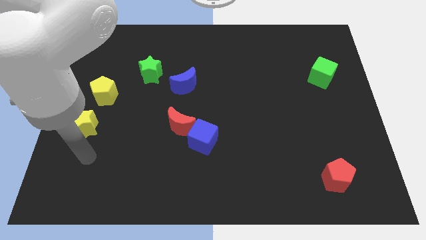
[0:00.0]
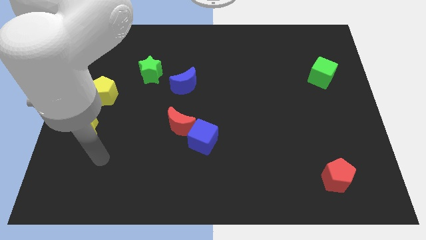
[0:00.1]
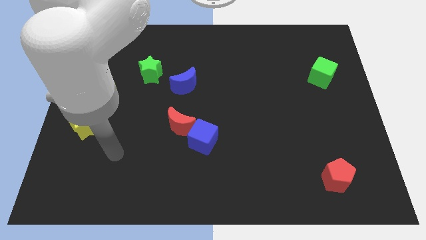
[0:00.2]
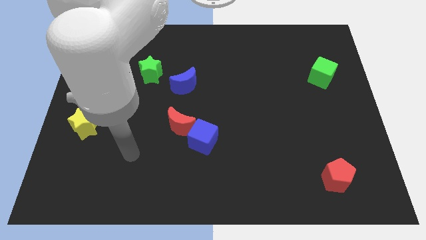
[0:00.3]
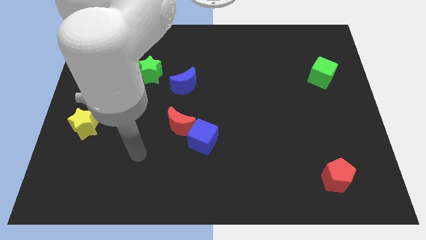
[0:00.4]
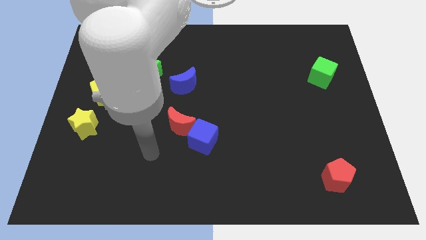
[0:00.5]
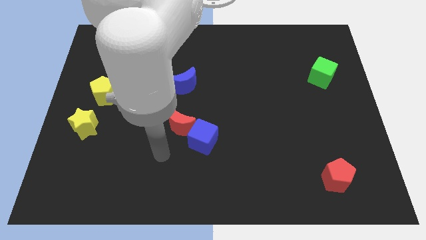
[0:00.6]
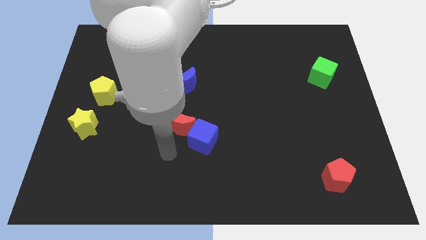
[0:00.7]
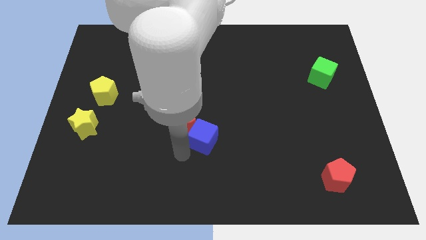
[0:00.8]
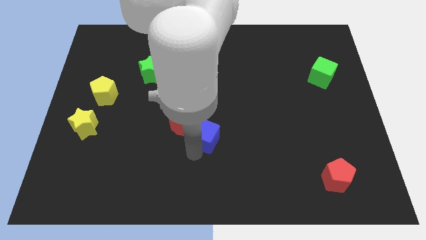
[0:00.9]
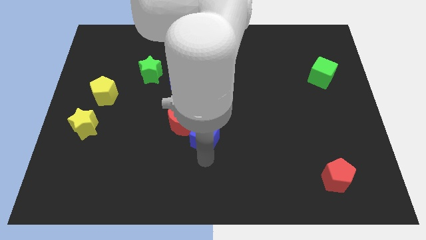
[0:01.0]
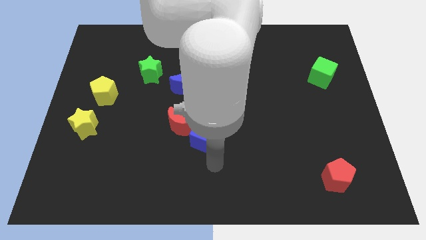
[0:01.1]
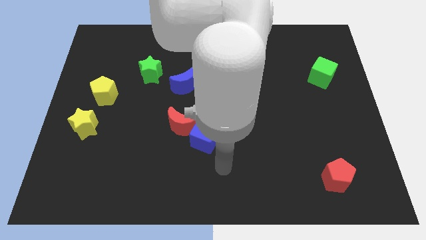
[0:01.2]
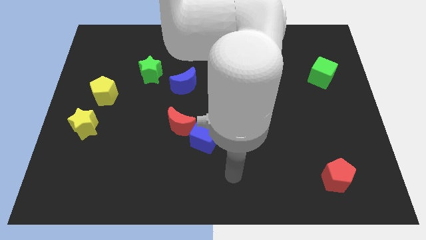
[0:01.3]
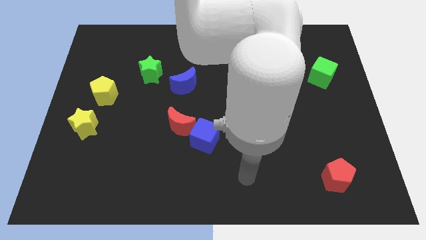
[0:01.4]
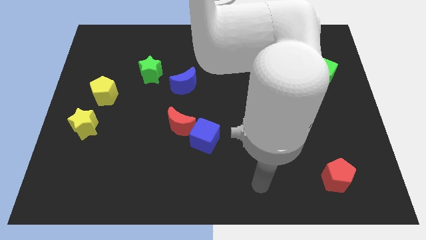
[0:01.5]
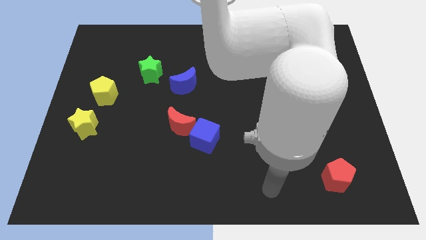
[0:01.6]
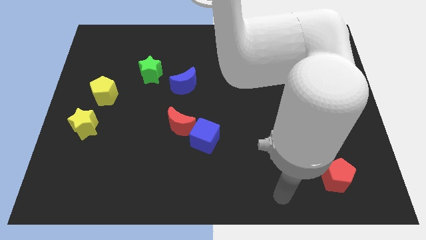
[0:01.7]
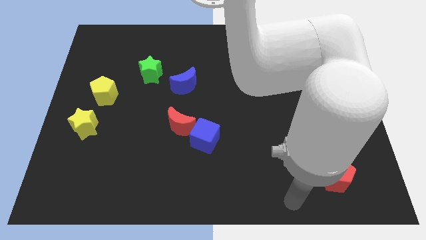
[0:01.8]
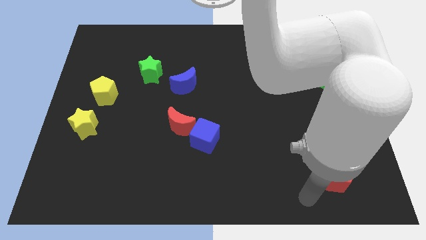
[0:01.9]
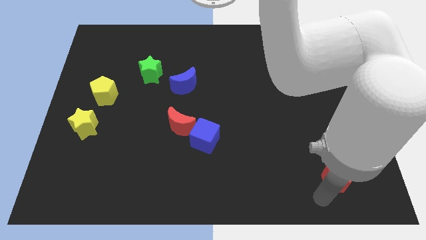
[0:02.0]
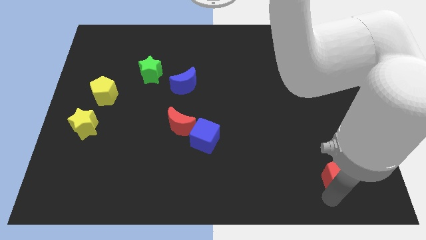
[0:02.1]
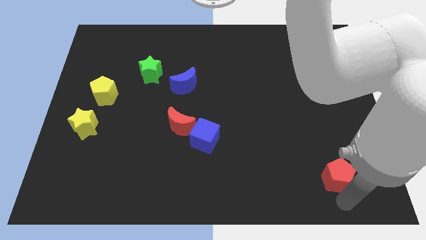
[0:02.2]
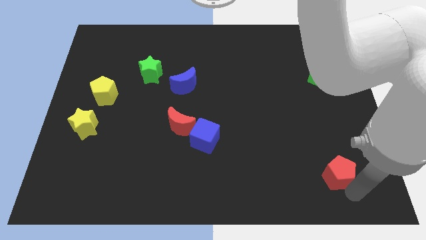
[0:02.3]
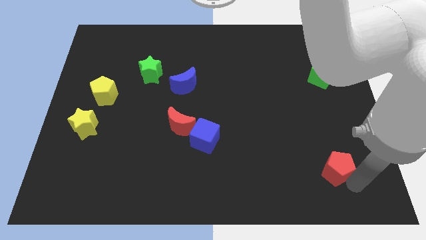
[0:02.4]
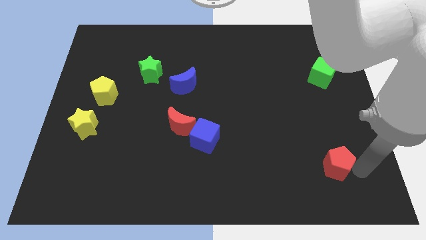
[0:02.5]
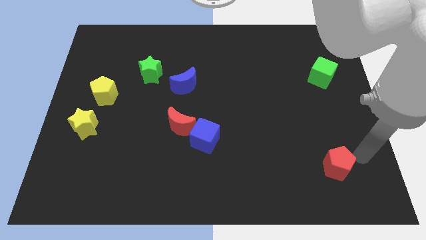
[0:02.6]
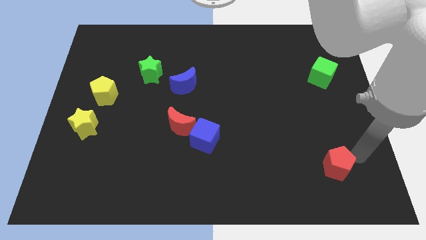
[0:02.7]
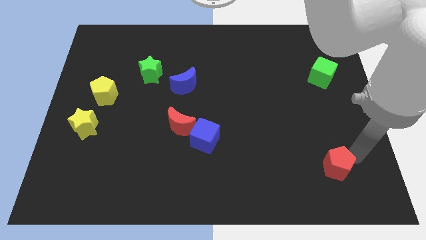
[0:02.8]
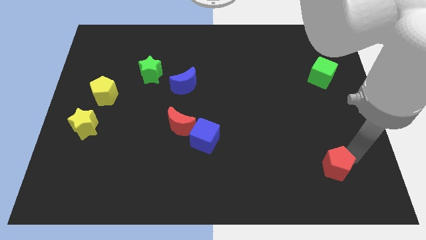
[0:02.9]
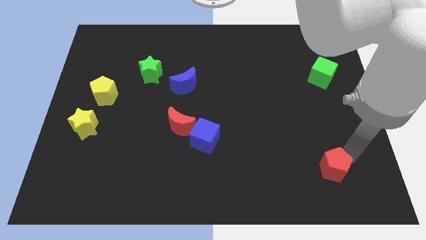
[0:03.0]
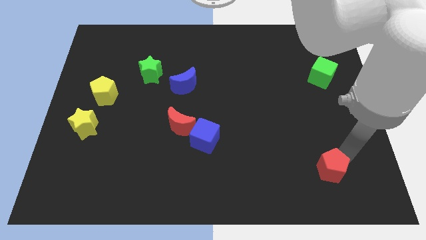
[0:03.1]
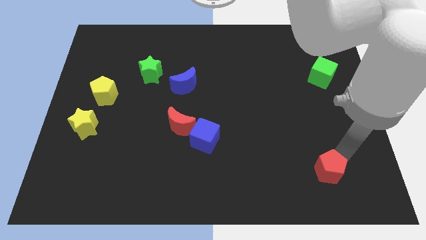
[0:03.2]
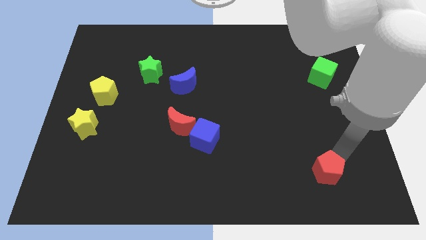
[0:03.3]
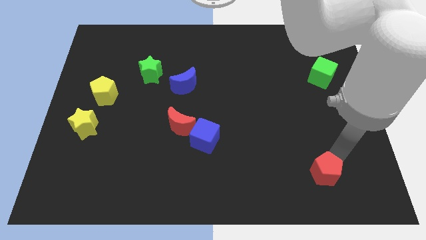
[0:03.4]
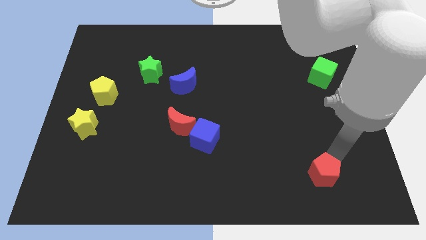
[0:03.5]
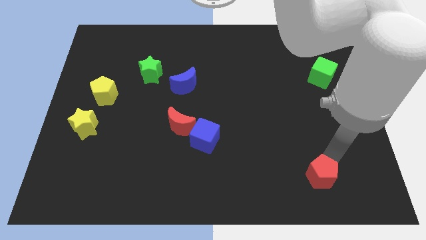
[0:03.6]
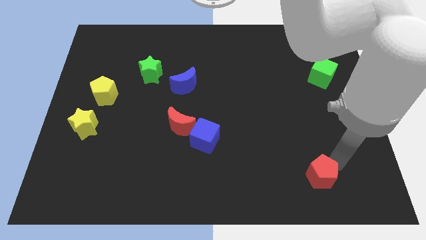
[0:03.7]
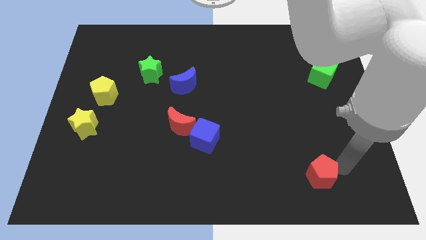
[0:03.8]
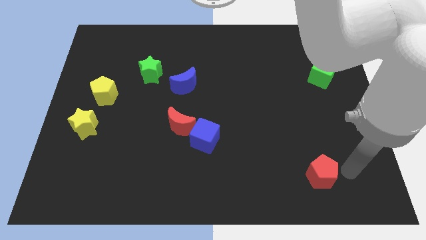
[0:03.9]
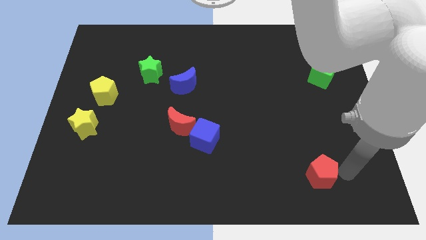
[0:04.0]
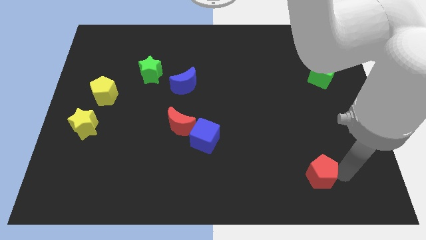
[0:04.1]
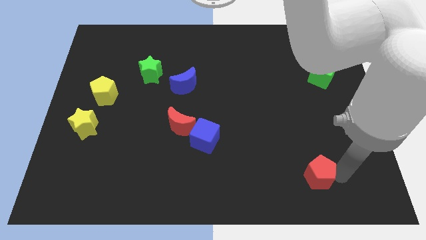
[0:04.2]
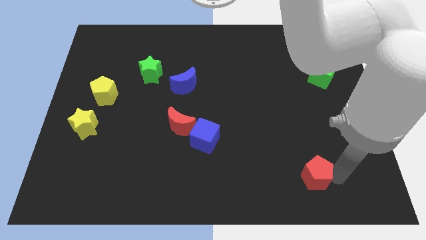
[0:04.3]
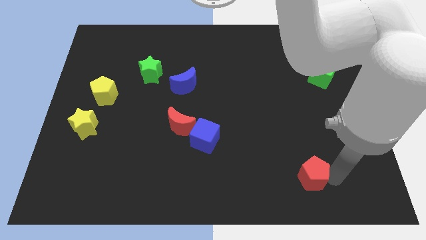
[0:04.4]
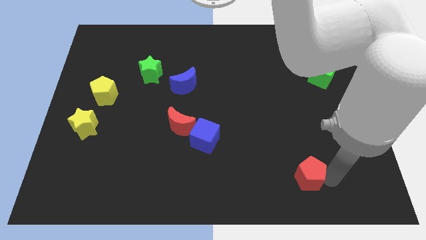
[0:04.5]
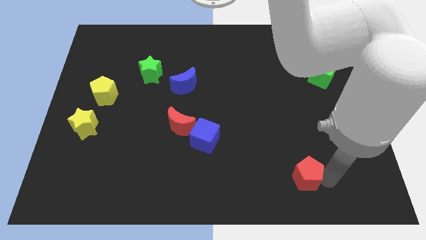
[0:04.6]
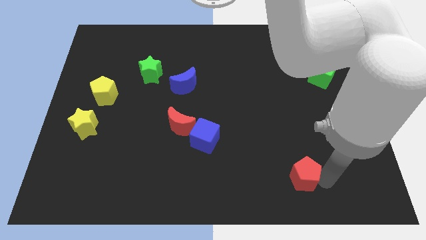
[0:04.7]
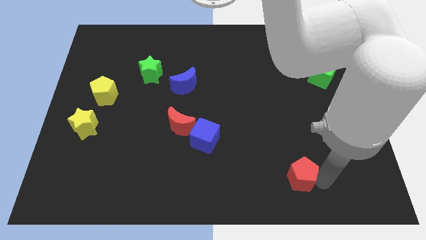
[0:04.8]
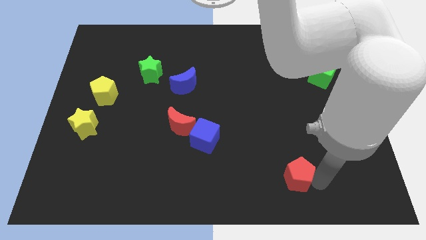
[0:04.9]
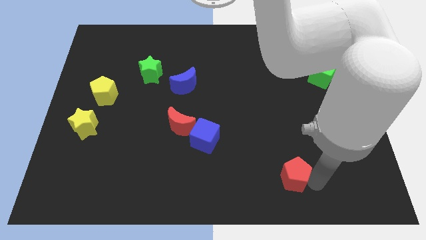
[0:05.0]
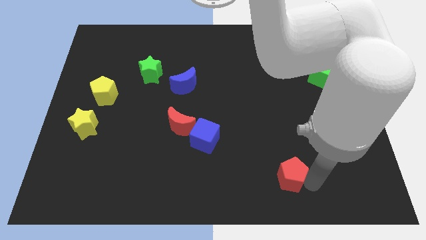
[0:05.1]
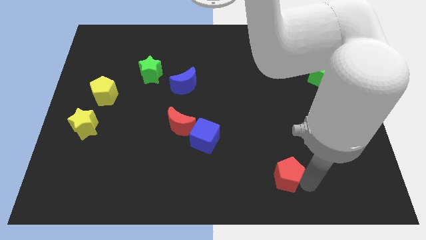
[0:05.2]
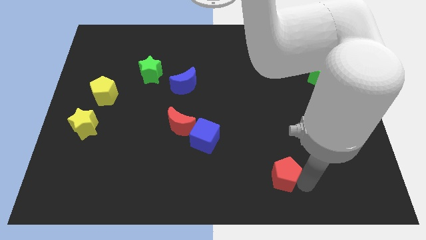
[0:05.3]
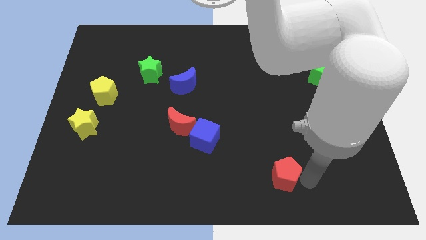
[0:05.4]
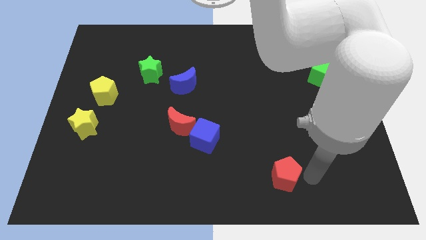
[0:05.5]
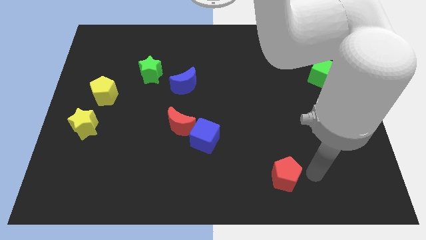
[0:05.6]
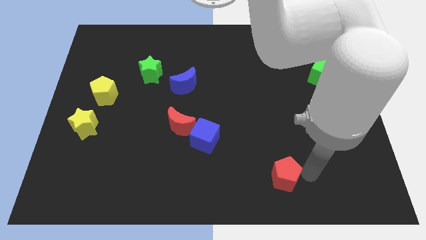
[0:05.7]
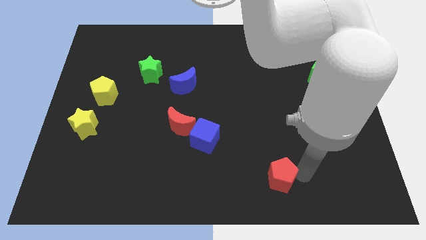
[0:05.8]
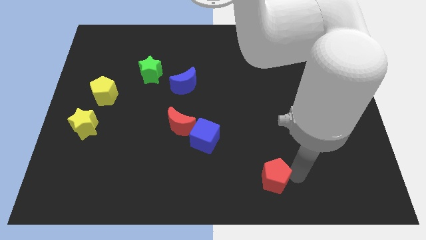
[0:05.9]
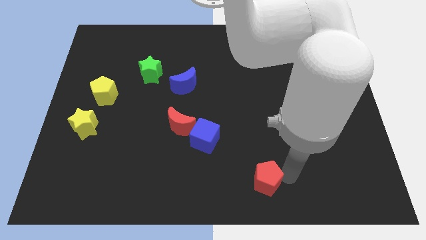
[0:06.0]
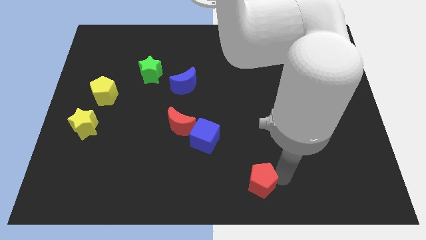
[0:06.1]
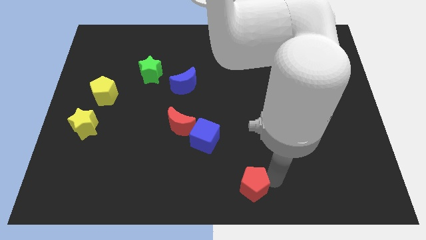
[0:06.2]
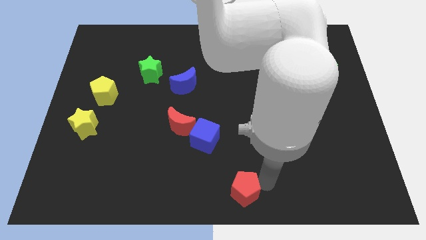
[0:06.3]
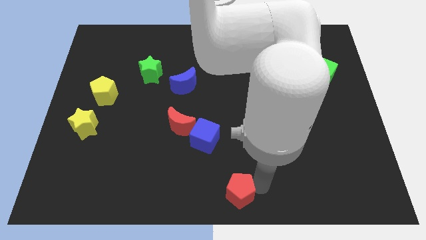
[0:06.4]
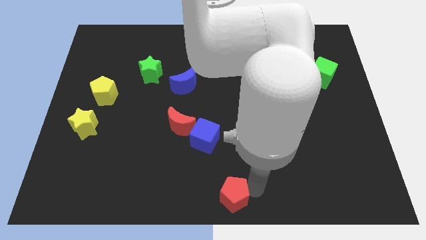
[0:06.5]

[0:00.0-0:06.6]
push the red pentagon left

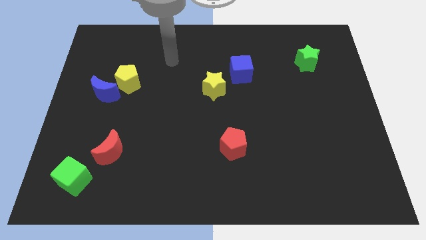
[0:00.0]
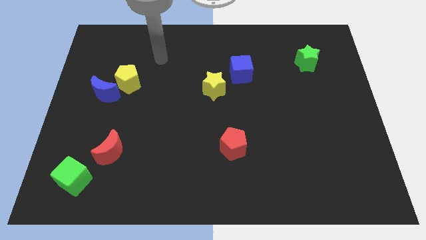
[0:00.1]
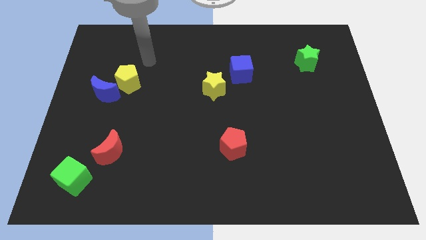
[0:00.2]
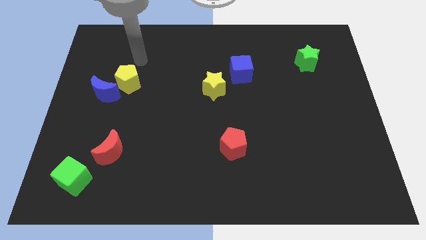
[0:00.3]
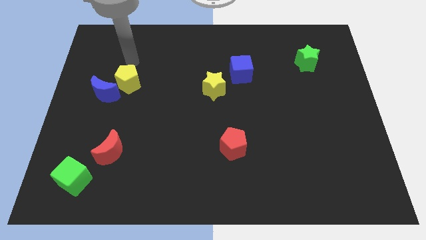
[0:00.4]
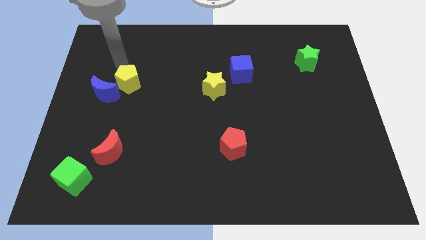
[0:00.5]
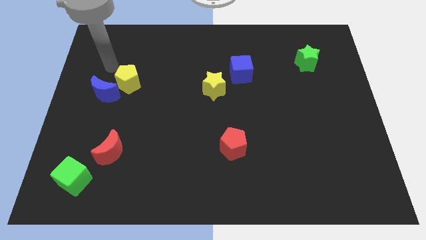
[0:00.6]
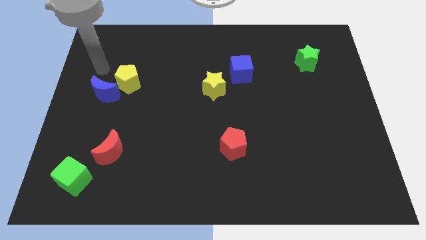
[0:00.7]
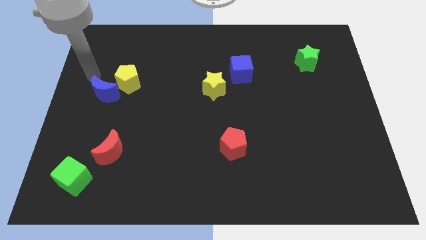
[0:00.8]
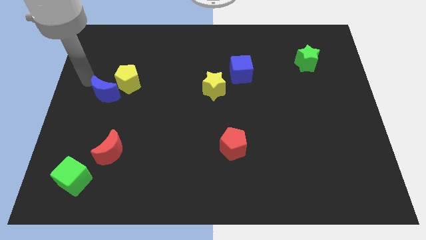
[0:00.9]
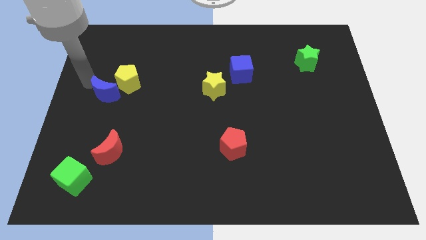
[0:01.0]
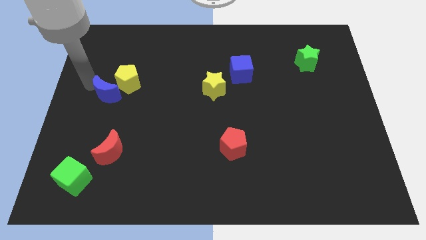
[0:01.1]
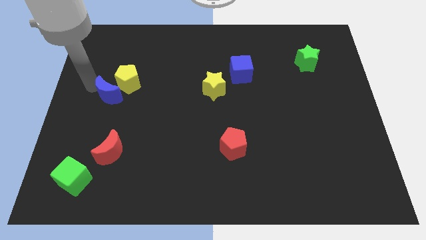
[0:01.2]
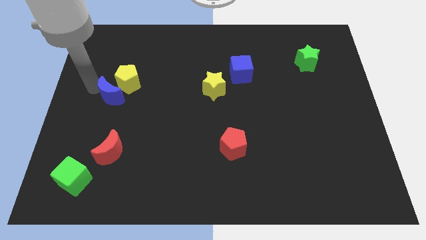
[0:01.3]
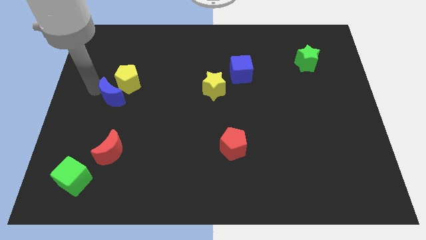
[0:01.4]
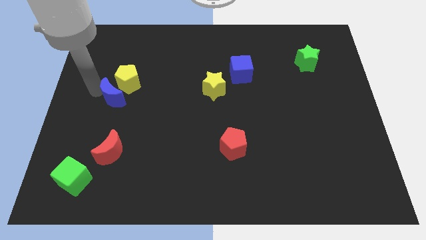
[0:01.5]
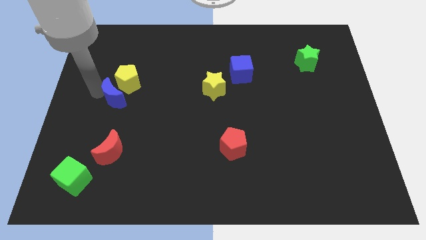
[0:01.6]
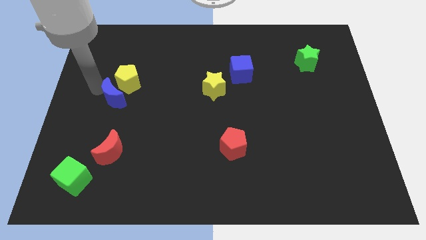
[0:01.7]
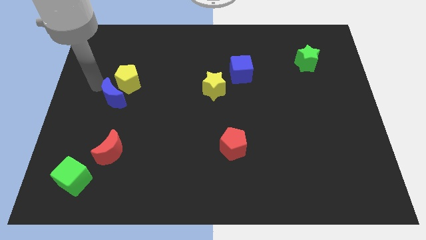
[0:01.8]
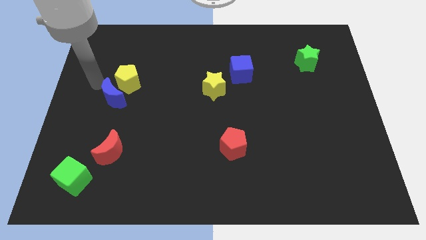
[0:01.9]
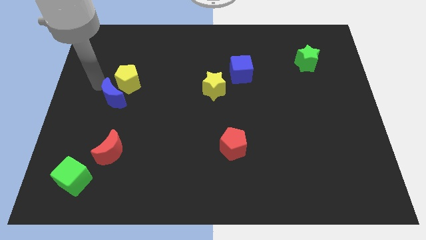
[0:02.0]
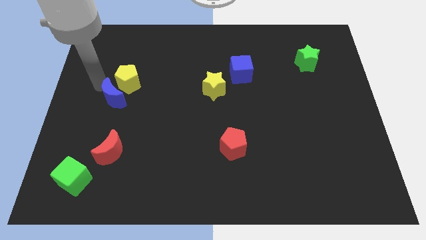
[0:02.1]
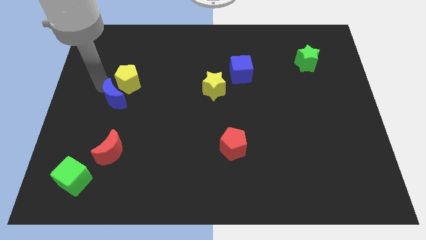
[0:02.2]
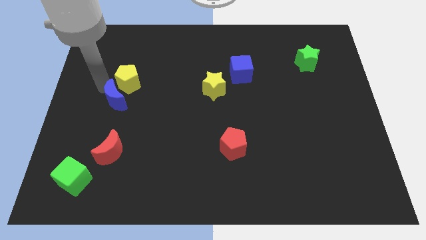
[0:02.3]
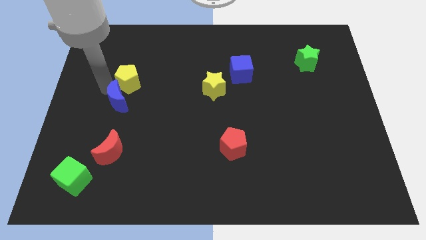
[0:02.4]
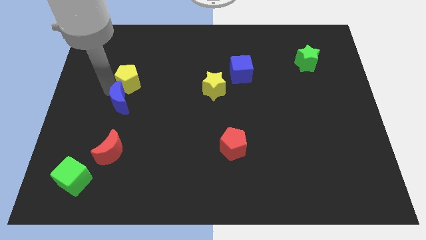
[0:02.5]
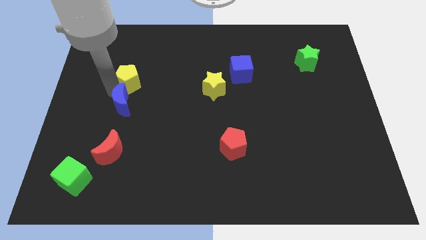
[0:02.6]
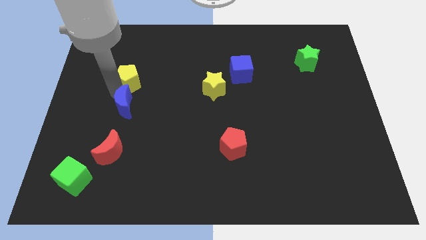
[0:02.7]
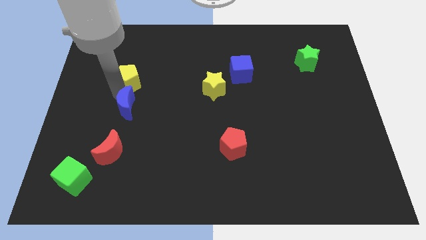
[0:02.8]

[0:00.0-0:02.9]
slightly slide the blue moon down and to the right diagonally
